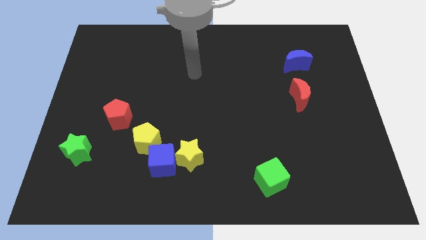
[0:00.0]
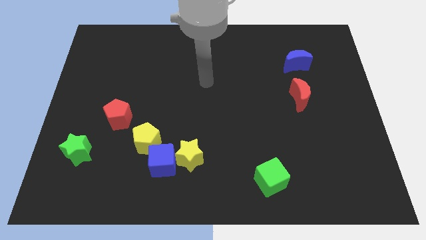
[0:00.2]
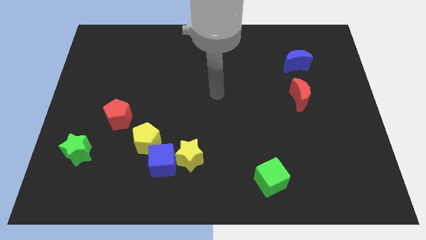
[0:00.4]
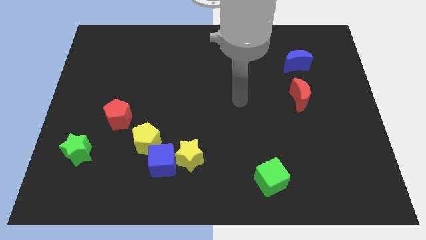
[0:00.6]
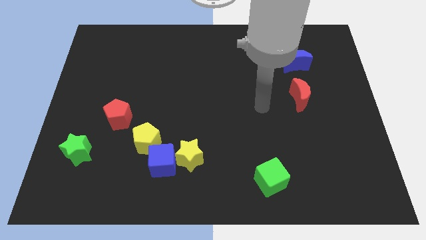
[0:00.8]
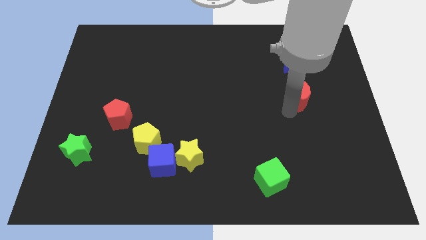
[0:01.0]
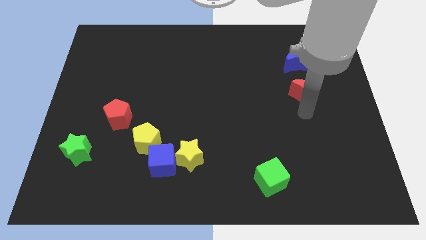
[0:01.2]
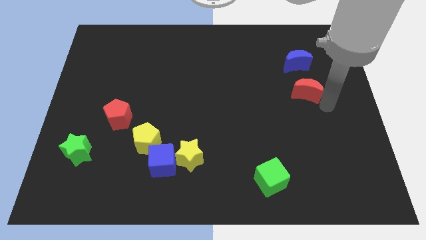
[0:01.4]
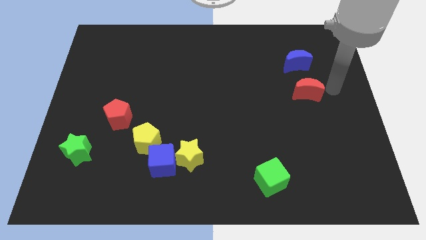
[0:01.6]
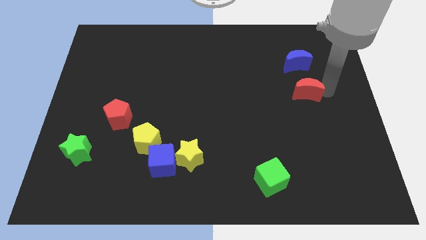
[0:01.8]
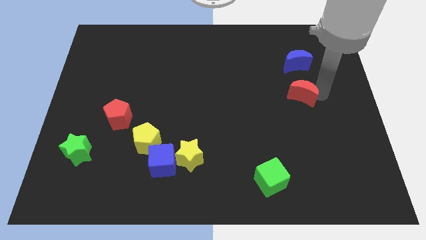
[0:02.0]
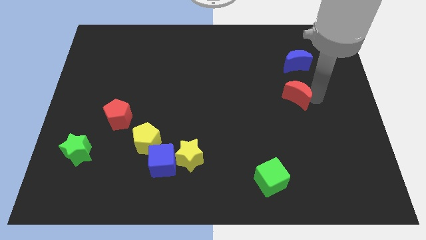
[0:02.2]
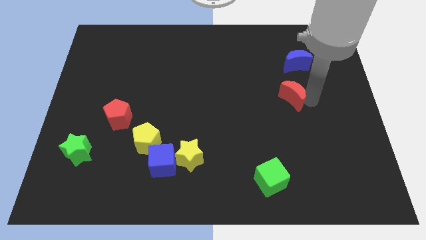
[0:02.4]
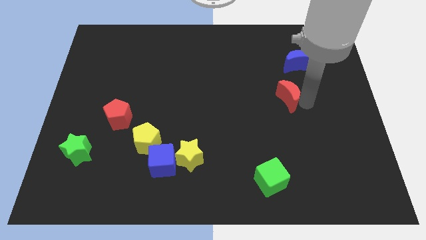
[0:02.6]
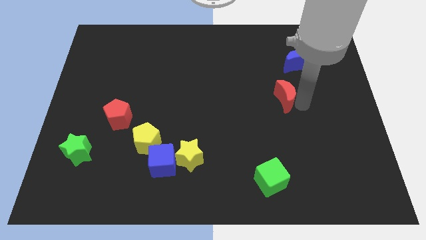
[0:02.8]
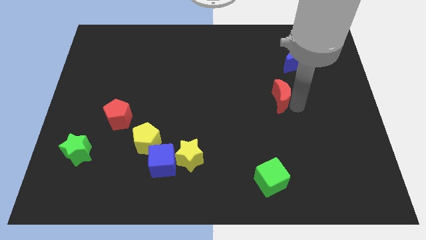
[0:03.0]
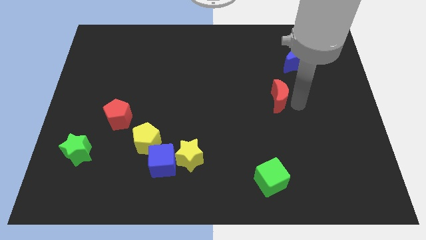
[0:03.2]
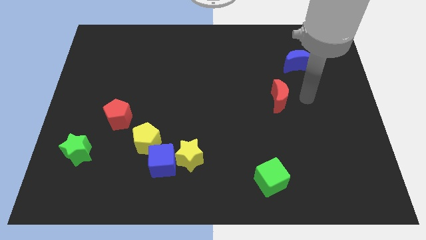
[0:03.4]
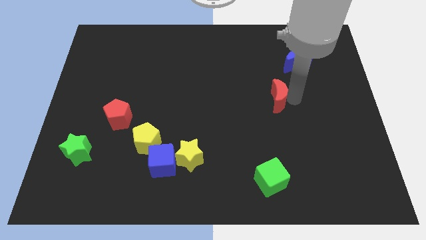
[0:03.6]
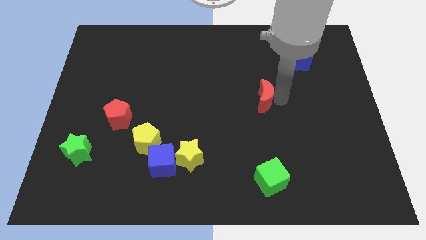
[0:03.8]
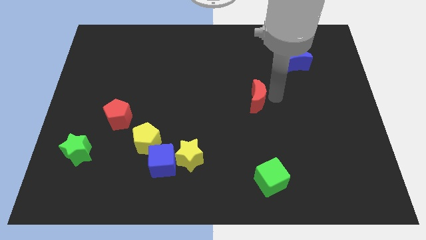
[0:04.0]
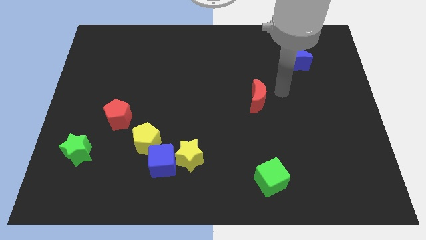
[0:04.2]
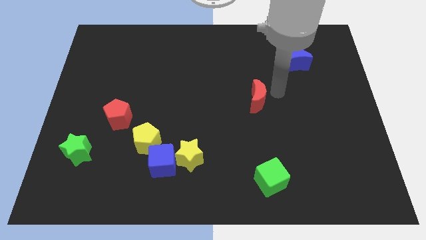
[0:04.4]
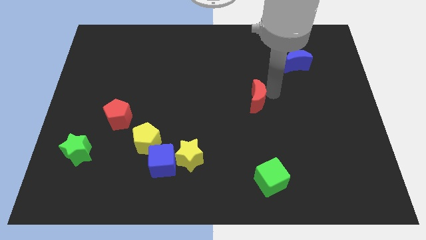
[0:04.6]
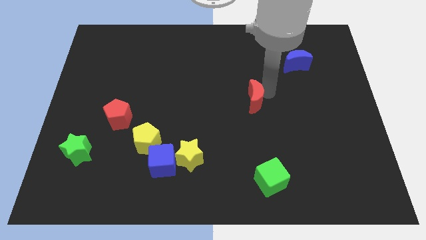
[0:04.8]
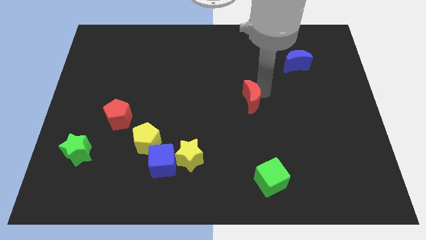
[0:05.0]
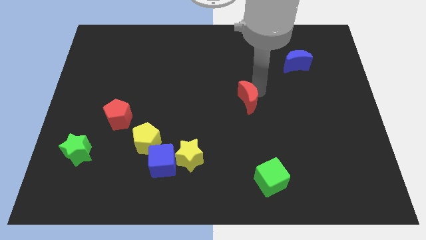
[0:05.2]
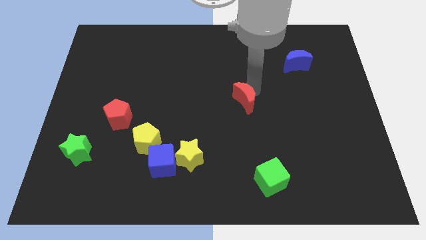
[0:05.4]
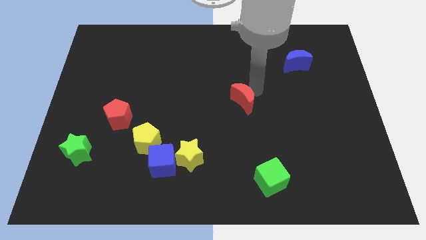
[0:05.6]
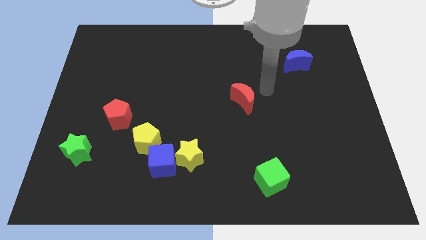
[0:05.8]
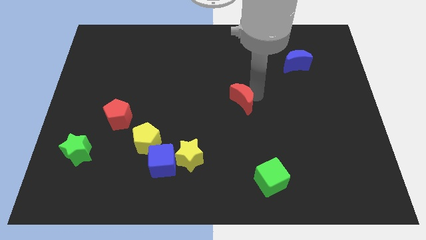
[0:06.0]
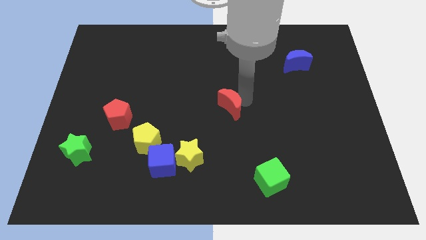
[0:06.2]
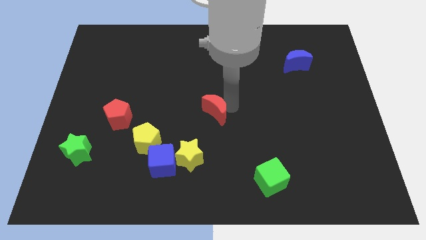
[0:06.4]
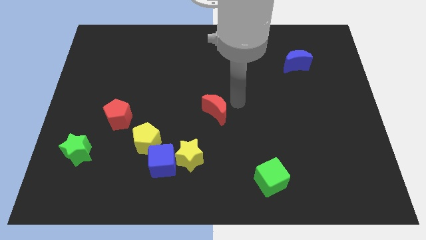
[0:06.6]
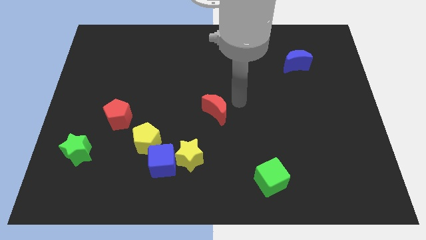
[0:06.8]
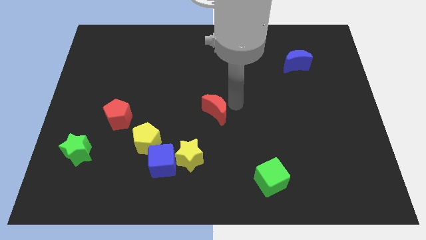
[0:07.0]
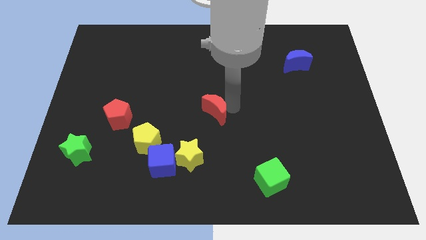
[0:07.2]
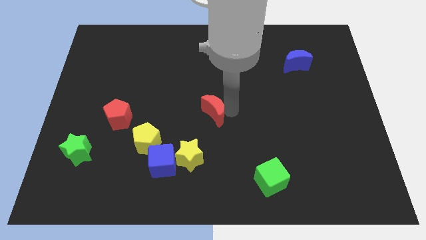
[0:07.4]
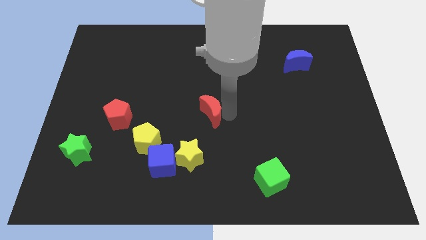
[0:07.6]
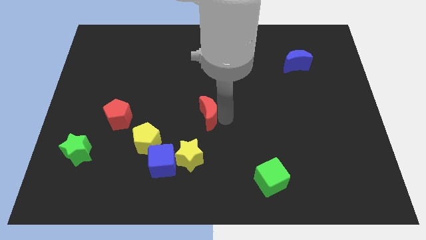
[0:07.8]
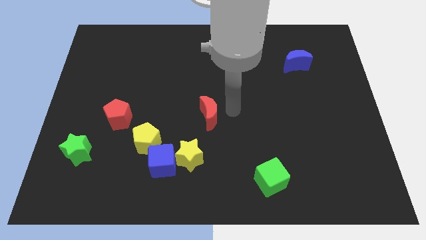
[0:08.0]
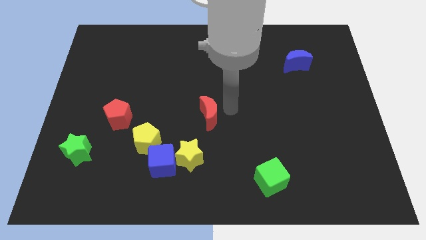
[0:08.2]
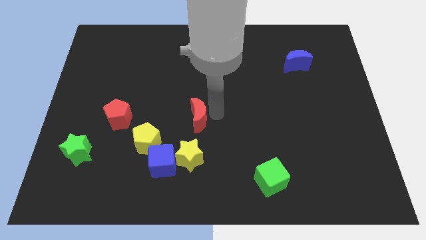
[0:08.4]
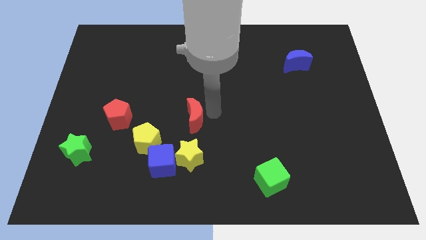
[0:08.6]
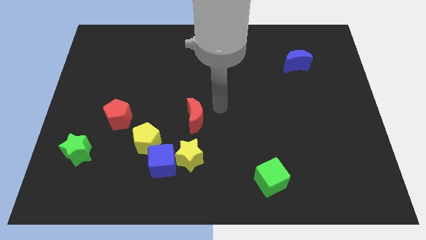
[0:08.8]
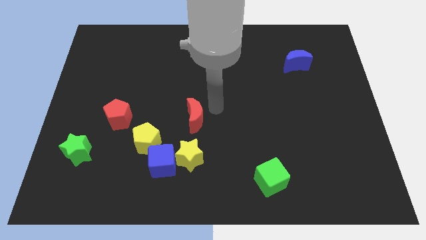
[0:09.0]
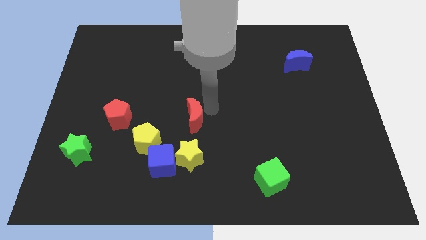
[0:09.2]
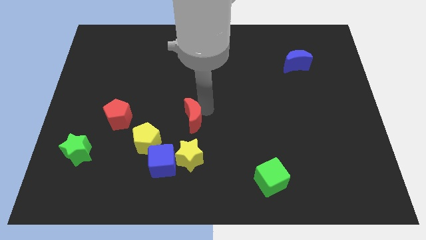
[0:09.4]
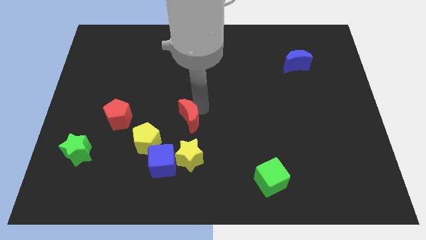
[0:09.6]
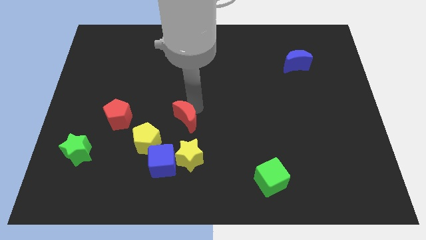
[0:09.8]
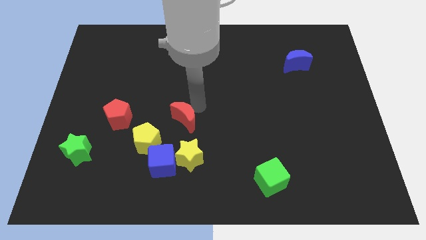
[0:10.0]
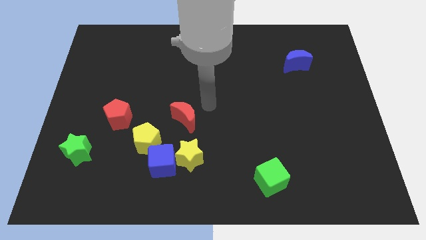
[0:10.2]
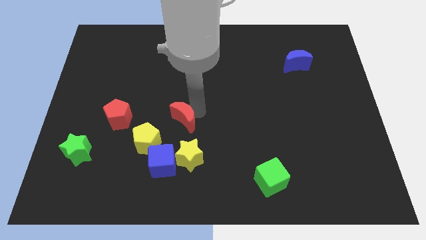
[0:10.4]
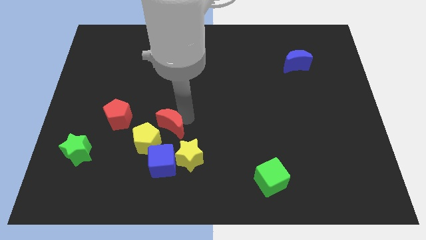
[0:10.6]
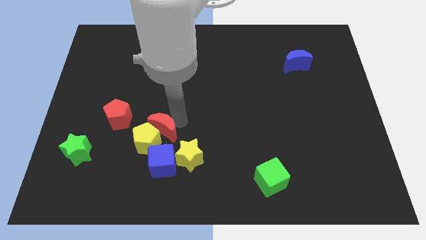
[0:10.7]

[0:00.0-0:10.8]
move the red moon next to the yellow pentagon

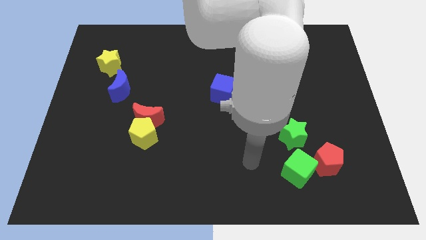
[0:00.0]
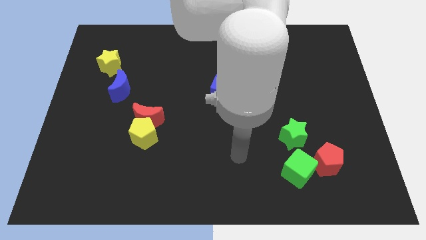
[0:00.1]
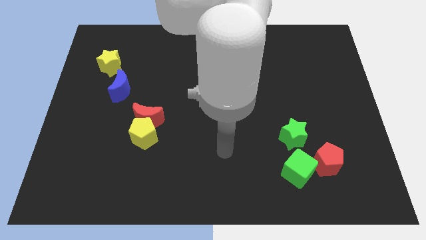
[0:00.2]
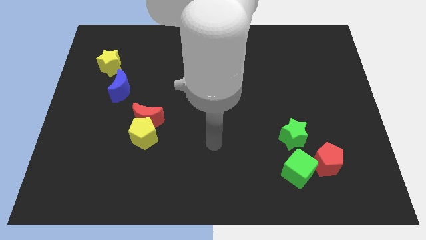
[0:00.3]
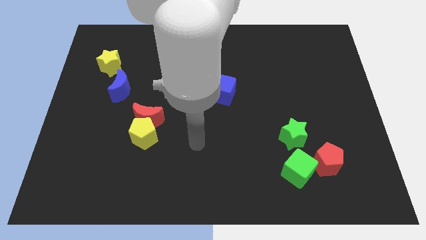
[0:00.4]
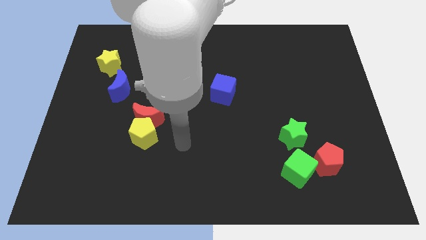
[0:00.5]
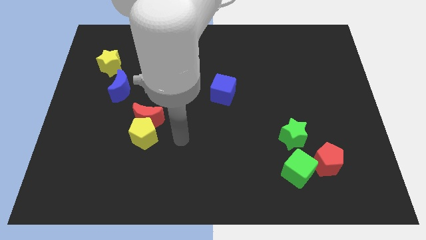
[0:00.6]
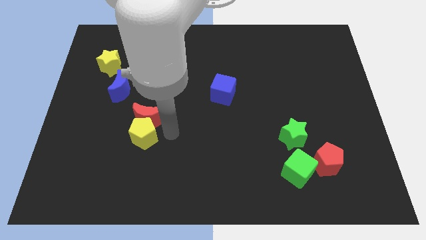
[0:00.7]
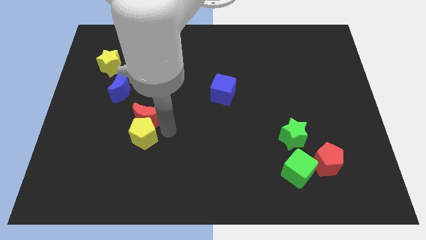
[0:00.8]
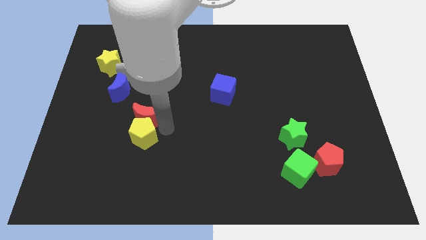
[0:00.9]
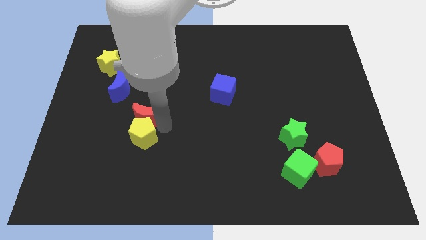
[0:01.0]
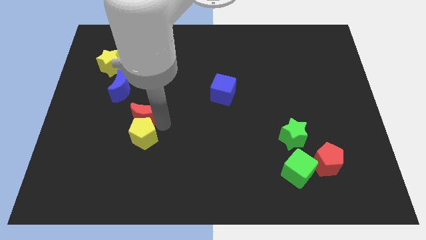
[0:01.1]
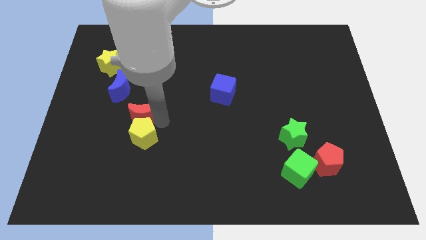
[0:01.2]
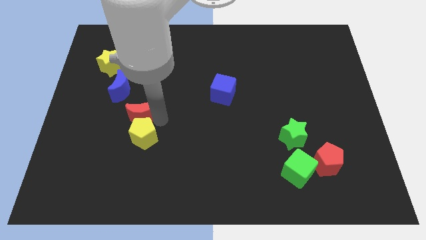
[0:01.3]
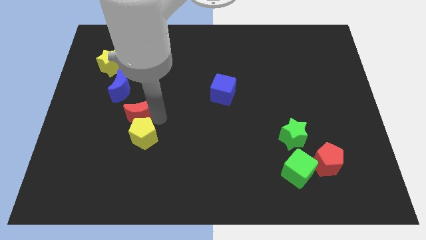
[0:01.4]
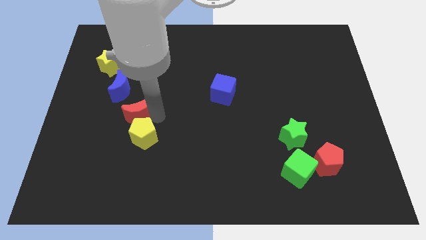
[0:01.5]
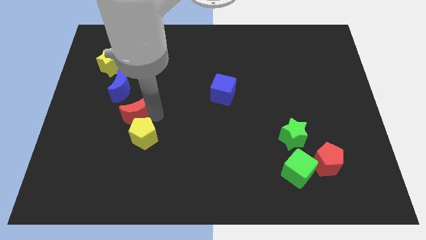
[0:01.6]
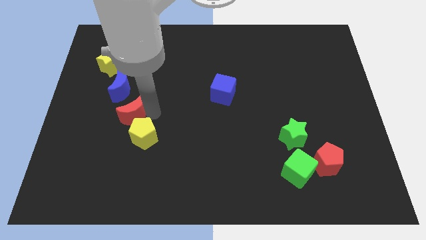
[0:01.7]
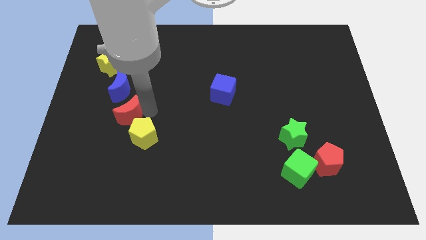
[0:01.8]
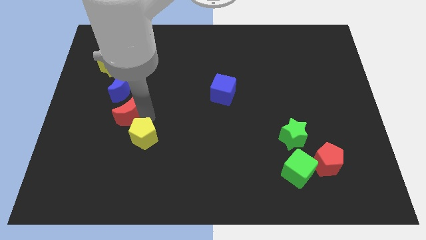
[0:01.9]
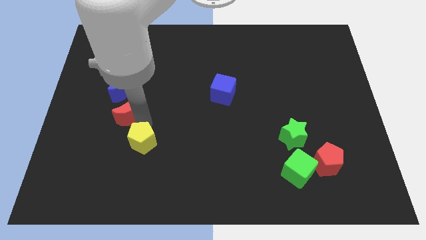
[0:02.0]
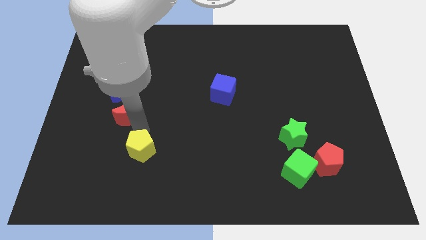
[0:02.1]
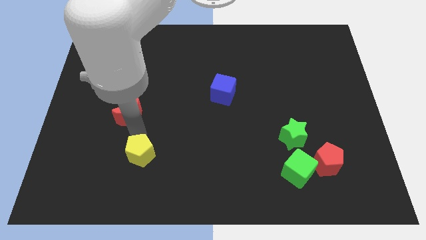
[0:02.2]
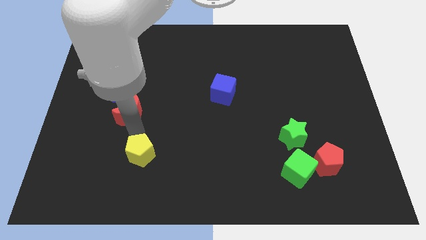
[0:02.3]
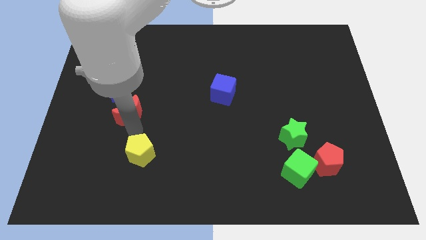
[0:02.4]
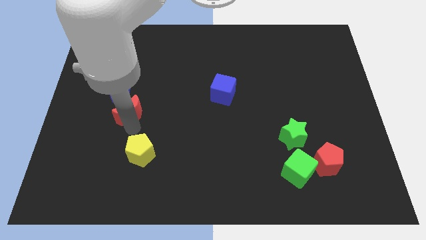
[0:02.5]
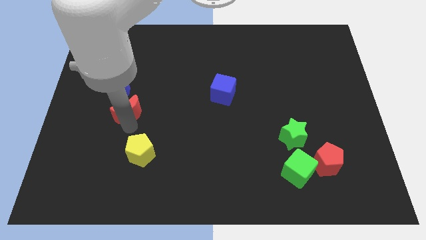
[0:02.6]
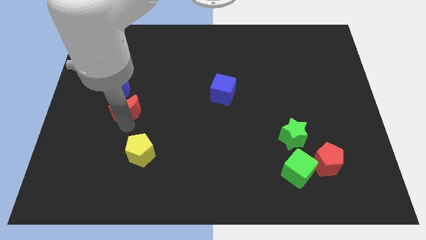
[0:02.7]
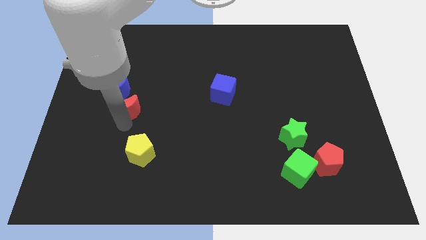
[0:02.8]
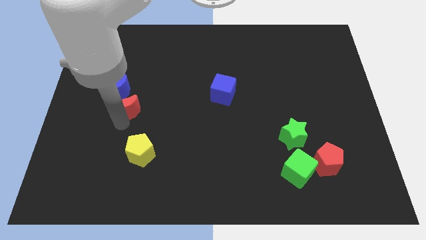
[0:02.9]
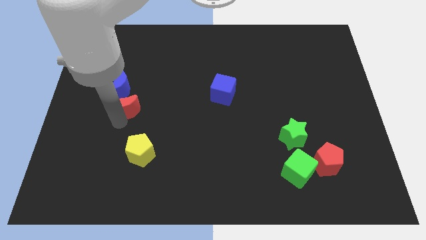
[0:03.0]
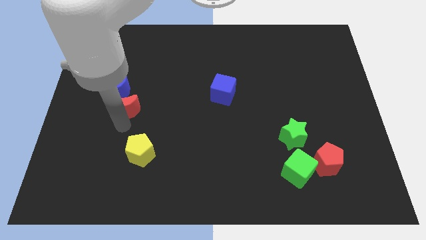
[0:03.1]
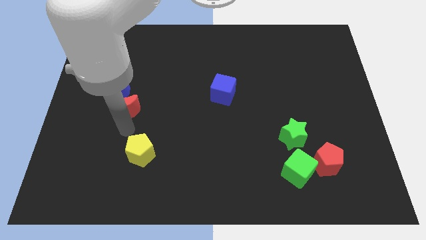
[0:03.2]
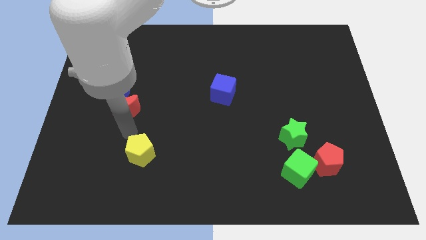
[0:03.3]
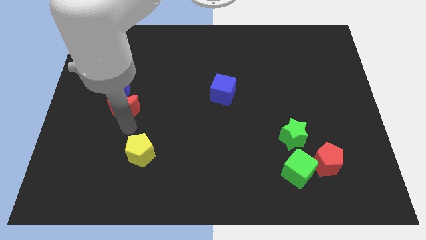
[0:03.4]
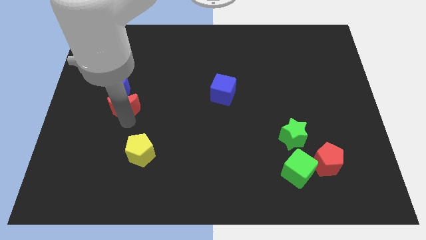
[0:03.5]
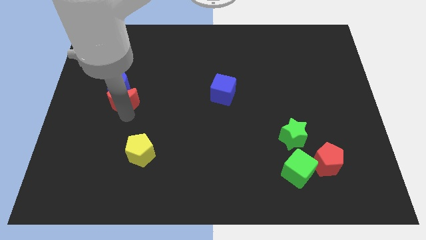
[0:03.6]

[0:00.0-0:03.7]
move the red moon to the blue moon
